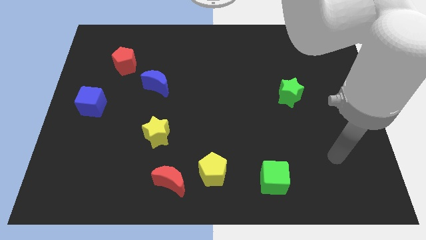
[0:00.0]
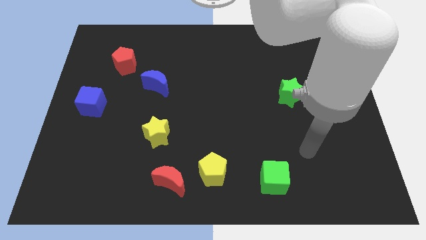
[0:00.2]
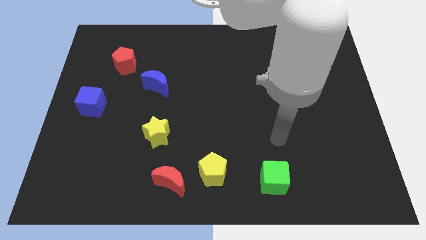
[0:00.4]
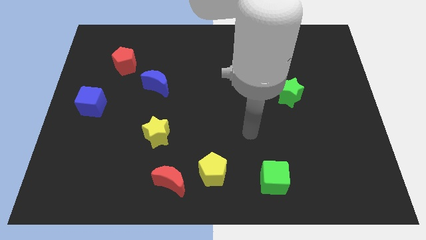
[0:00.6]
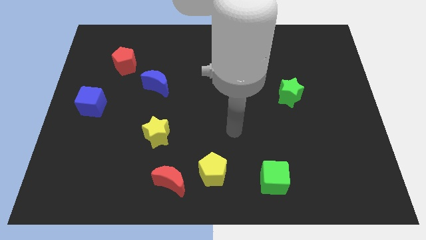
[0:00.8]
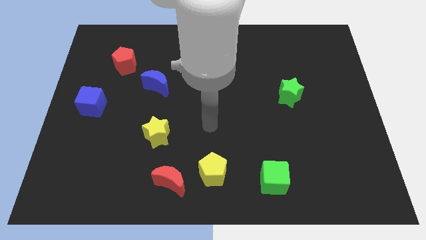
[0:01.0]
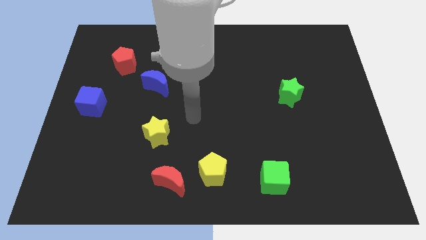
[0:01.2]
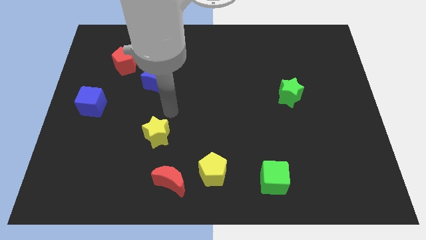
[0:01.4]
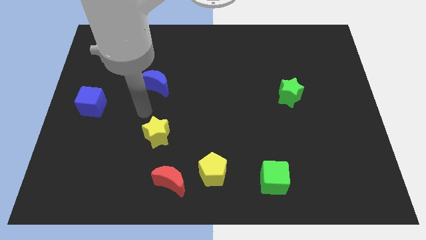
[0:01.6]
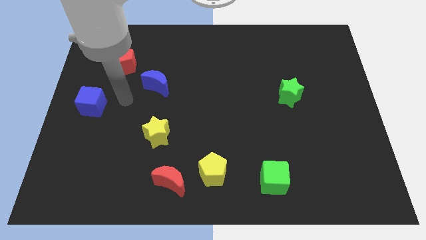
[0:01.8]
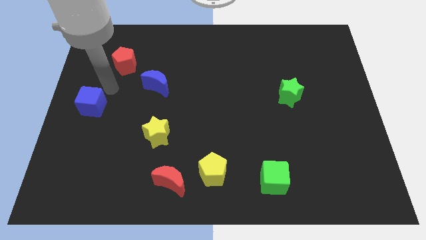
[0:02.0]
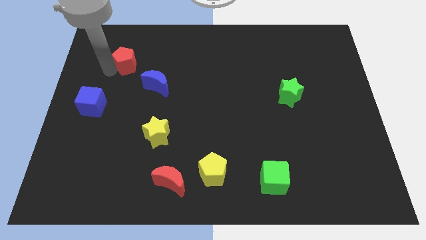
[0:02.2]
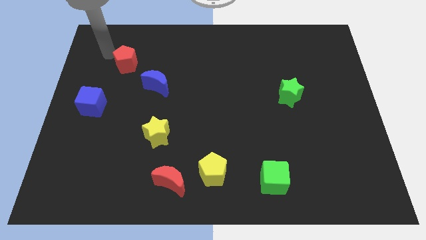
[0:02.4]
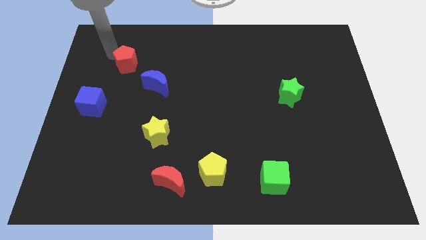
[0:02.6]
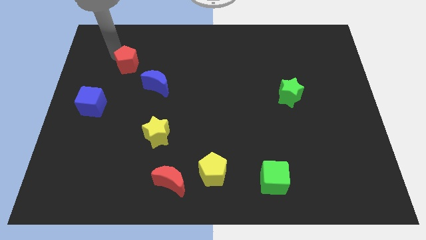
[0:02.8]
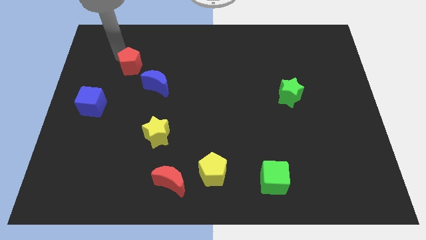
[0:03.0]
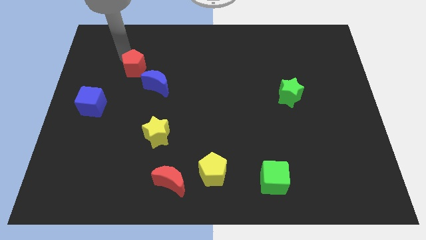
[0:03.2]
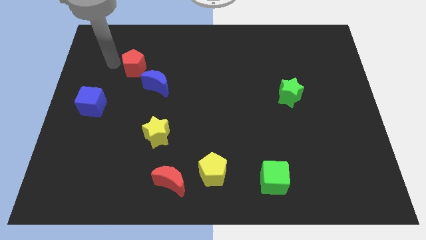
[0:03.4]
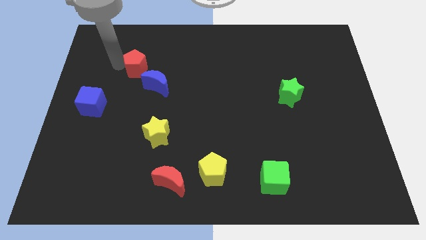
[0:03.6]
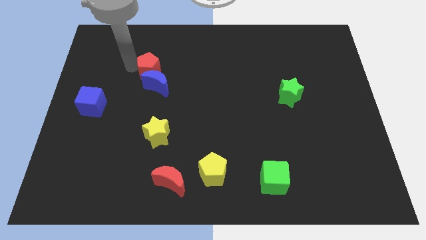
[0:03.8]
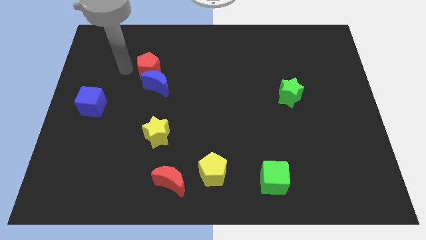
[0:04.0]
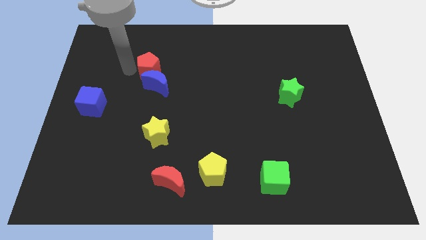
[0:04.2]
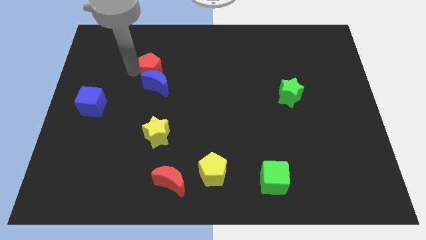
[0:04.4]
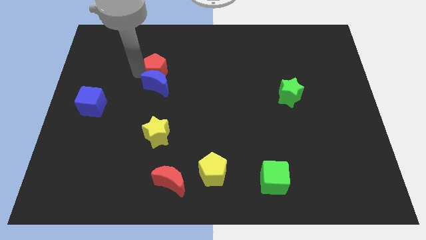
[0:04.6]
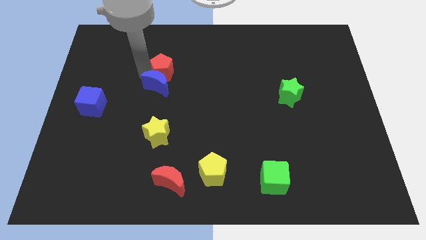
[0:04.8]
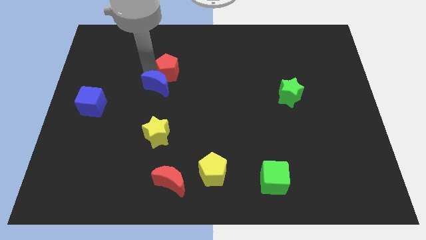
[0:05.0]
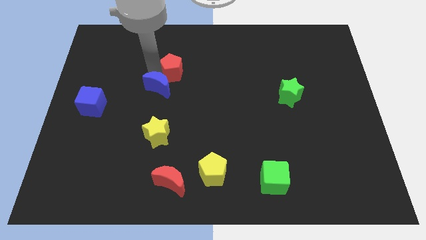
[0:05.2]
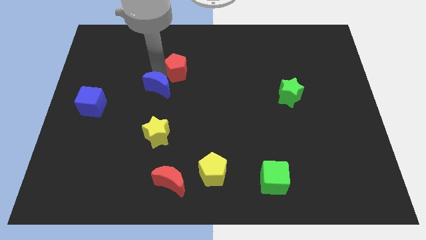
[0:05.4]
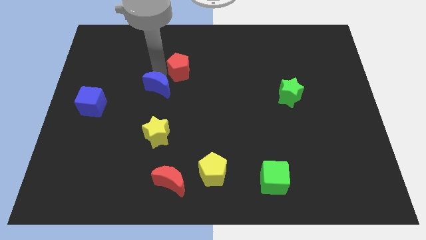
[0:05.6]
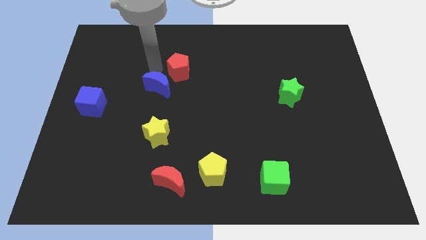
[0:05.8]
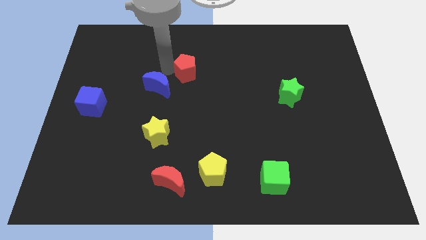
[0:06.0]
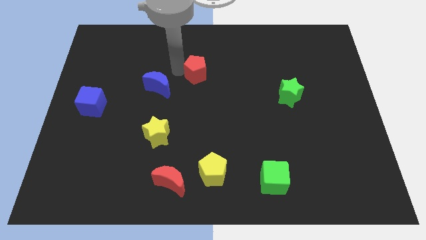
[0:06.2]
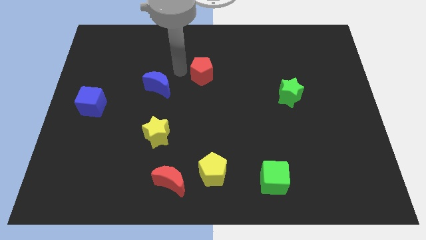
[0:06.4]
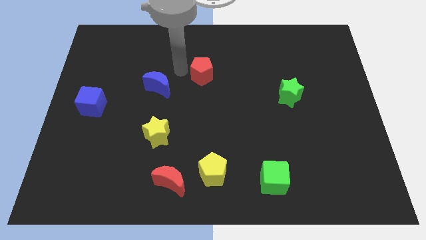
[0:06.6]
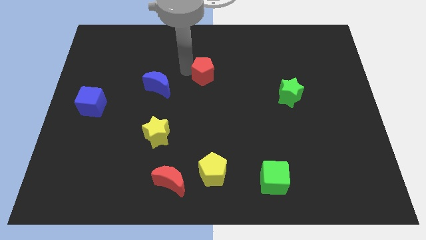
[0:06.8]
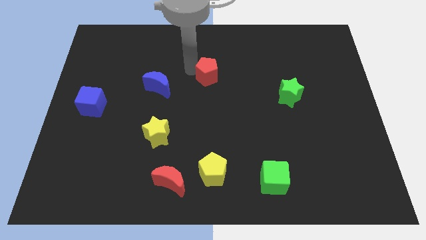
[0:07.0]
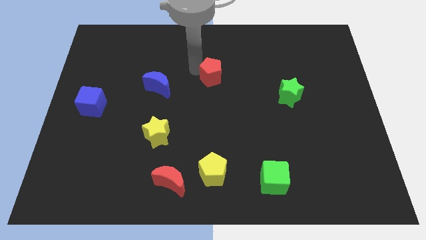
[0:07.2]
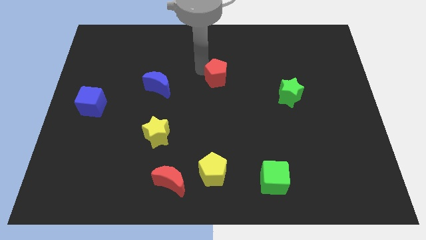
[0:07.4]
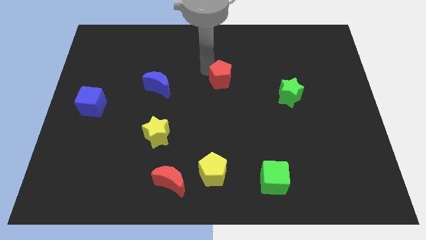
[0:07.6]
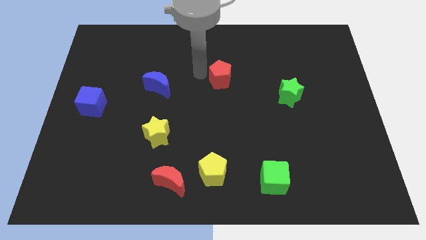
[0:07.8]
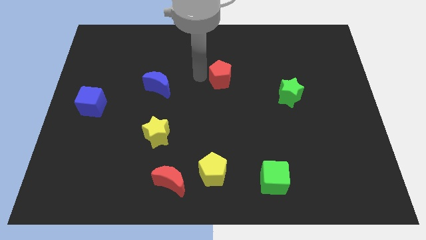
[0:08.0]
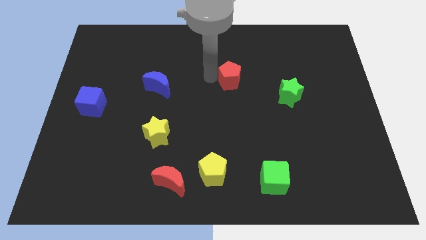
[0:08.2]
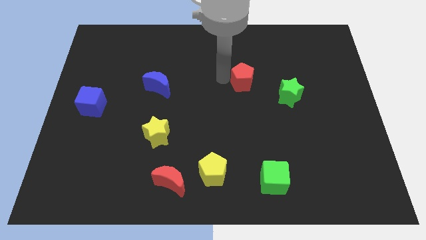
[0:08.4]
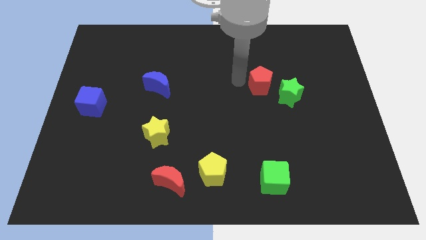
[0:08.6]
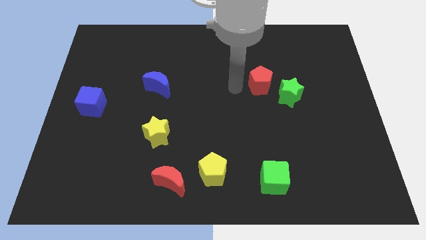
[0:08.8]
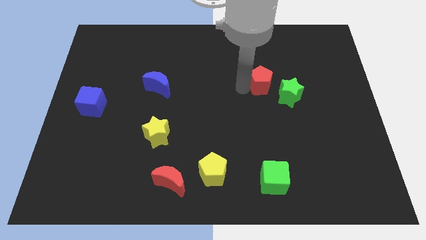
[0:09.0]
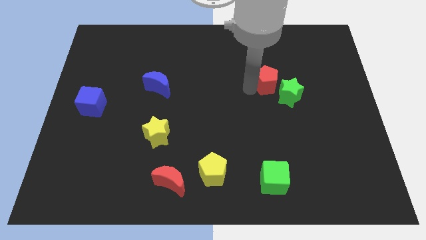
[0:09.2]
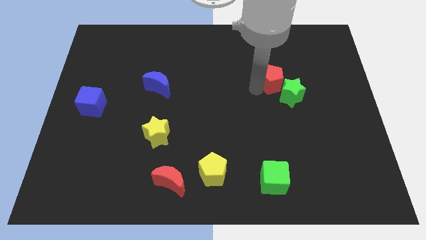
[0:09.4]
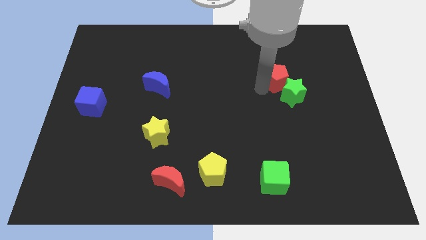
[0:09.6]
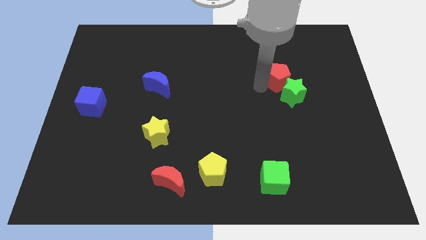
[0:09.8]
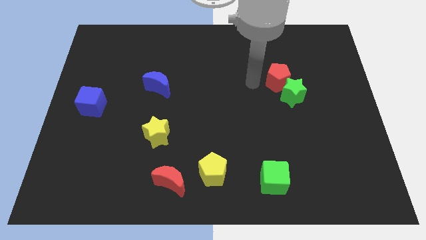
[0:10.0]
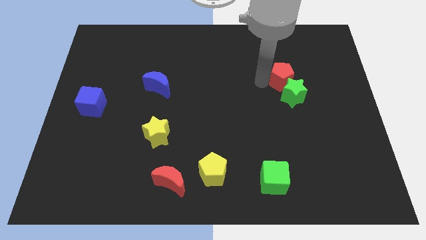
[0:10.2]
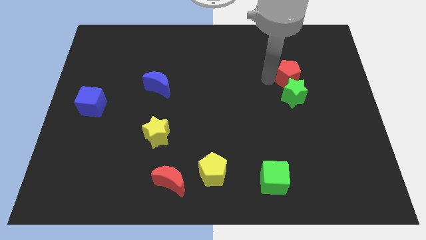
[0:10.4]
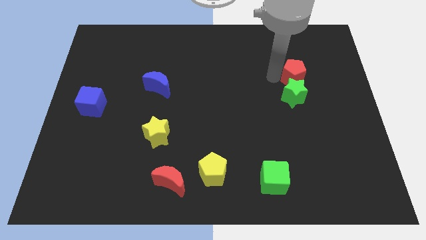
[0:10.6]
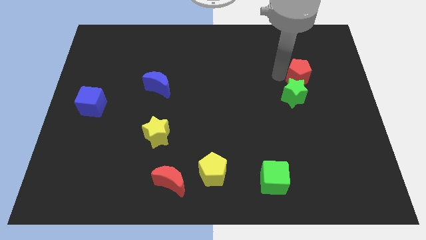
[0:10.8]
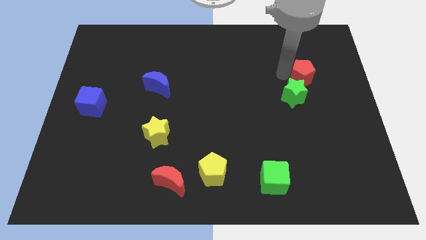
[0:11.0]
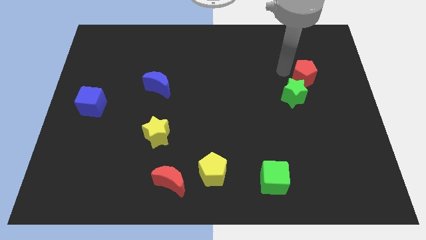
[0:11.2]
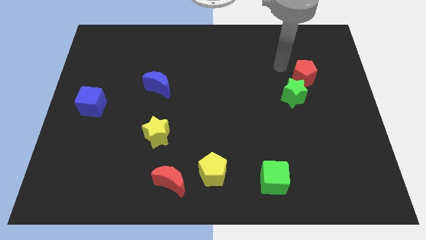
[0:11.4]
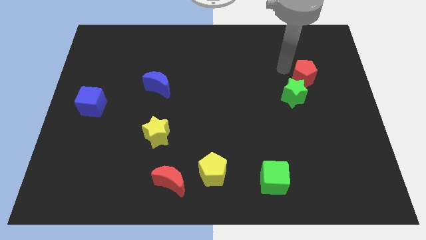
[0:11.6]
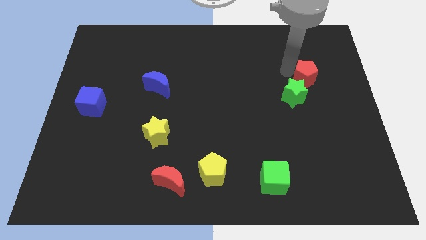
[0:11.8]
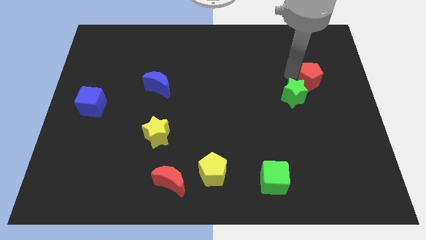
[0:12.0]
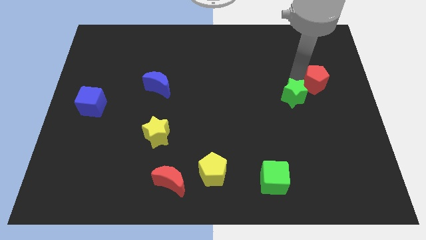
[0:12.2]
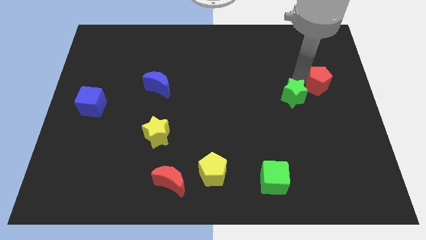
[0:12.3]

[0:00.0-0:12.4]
move the red pentagon to the right side of the board

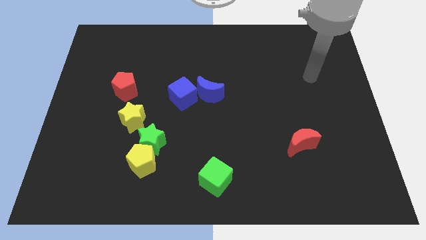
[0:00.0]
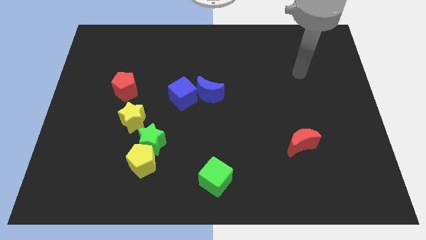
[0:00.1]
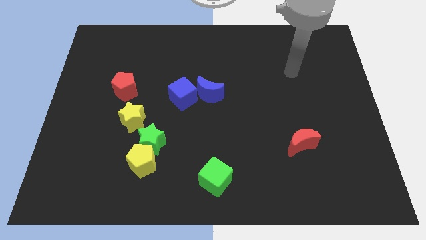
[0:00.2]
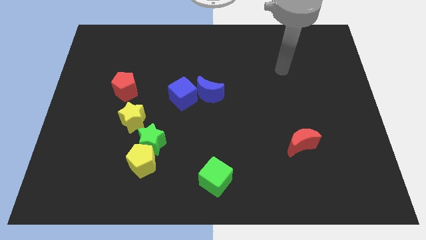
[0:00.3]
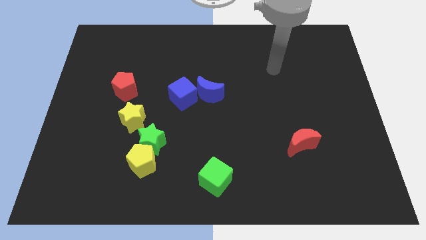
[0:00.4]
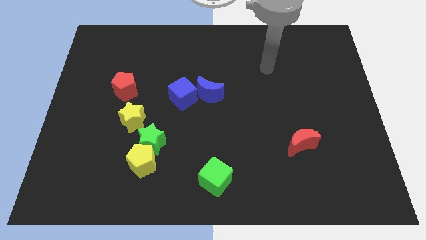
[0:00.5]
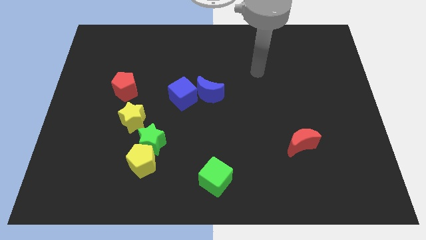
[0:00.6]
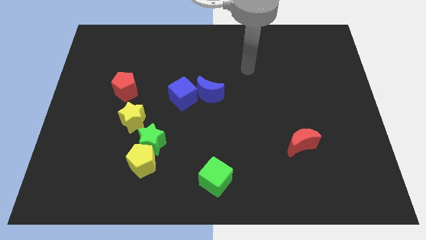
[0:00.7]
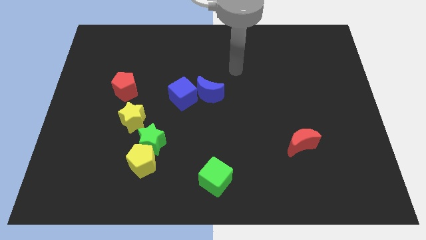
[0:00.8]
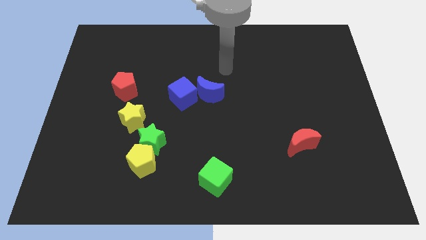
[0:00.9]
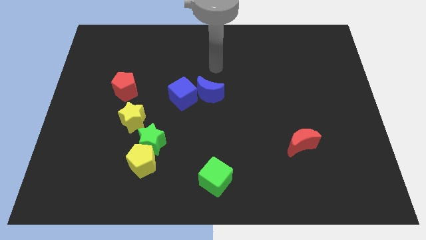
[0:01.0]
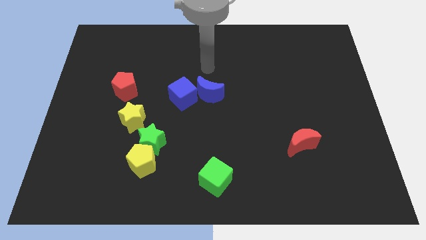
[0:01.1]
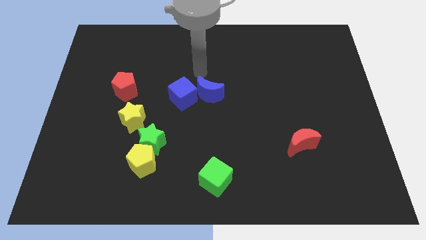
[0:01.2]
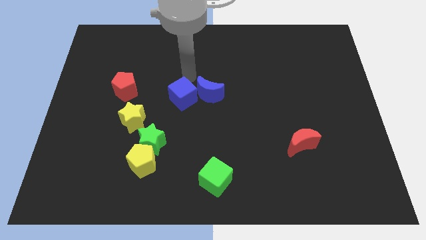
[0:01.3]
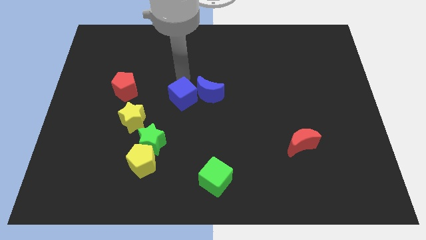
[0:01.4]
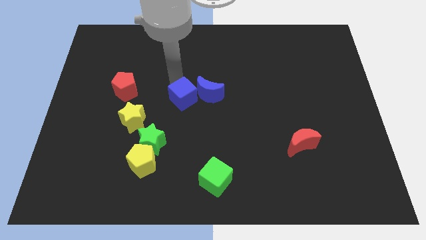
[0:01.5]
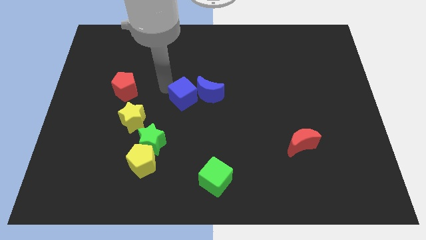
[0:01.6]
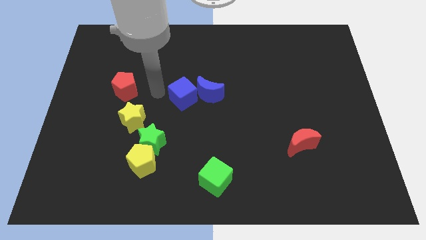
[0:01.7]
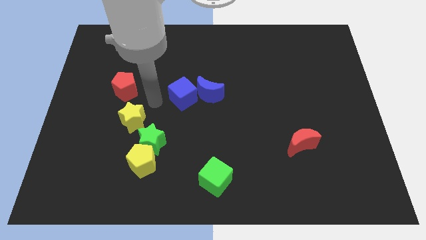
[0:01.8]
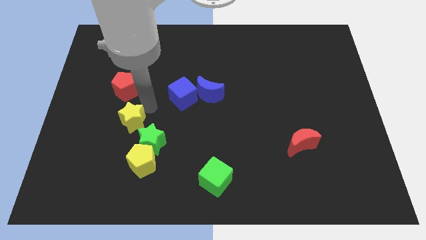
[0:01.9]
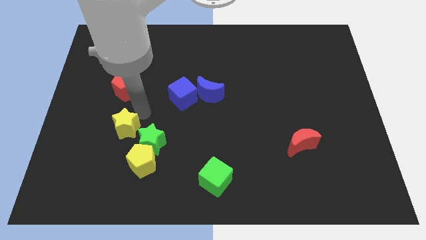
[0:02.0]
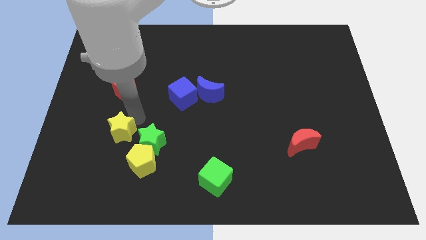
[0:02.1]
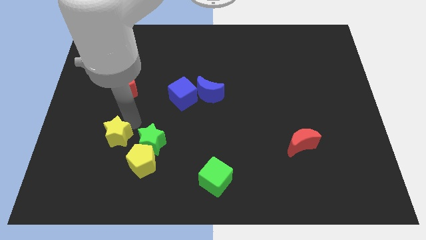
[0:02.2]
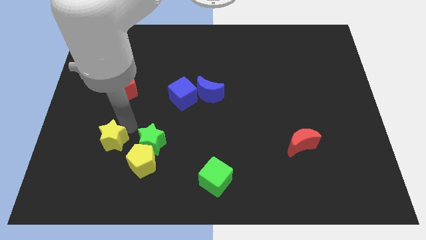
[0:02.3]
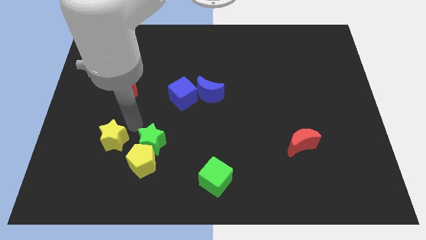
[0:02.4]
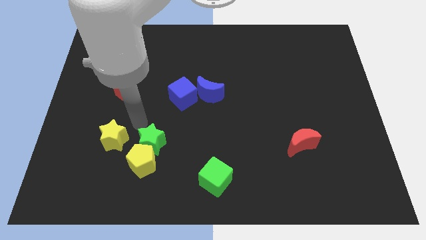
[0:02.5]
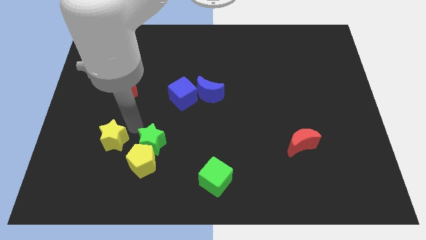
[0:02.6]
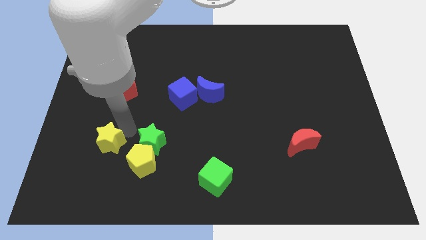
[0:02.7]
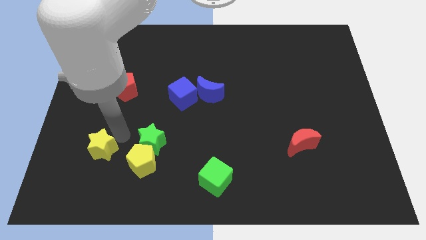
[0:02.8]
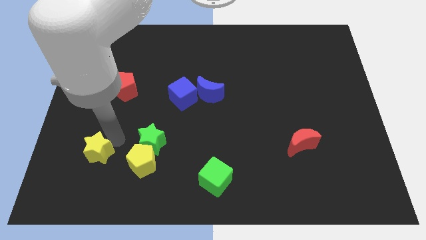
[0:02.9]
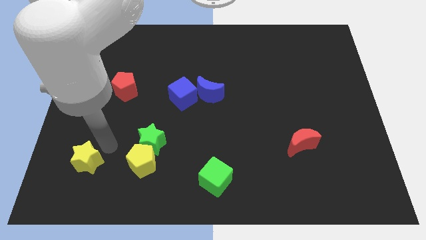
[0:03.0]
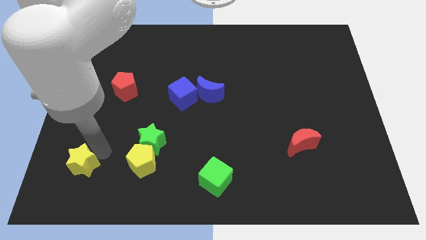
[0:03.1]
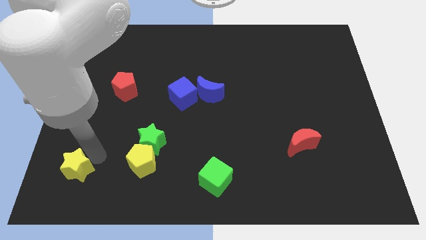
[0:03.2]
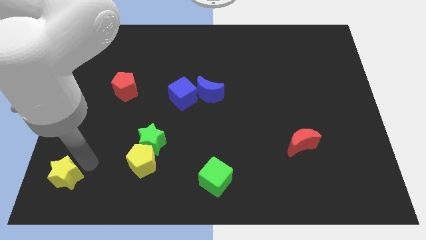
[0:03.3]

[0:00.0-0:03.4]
slide the yellow star to the bottom left
